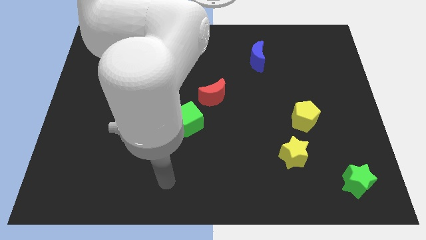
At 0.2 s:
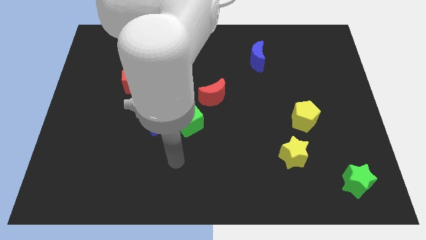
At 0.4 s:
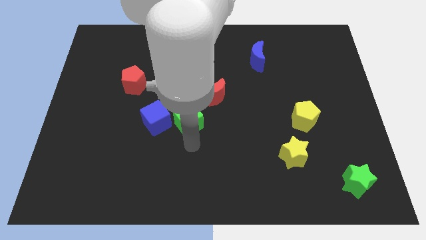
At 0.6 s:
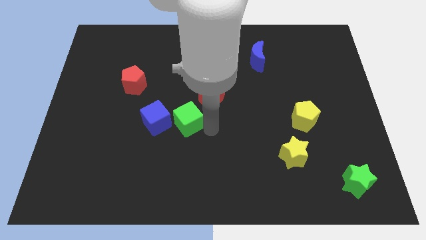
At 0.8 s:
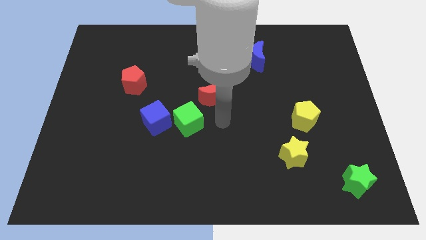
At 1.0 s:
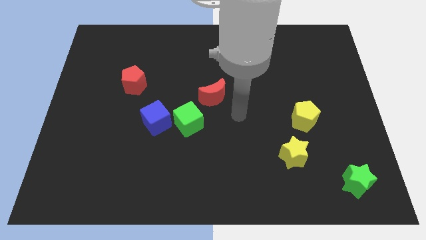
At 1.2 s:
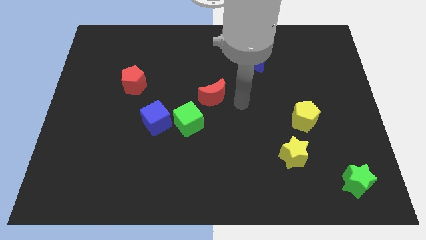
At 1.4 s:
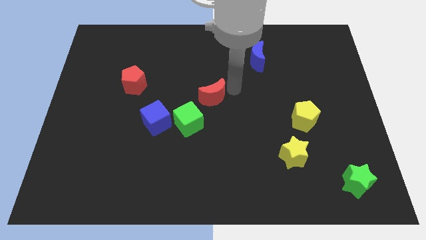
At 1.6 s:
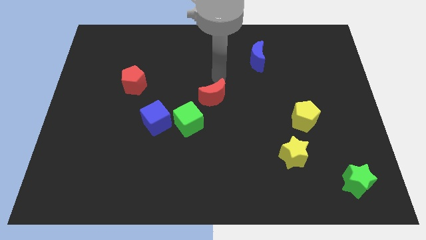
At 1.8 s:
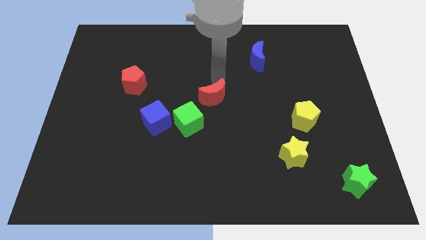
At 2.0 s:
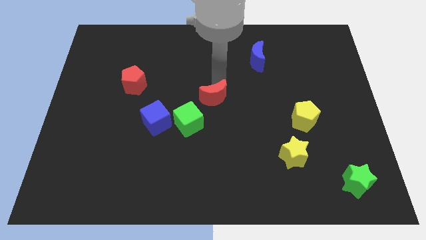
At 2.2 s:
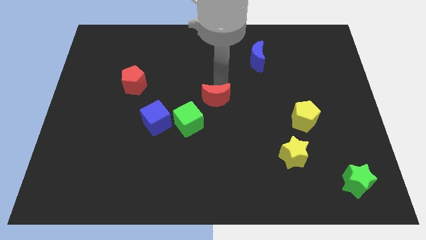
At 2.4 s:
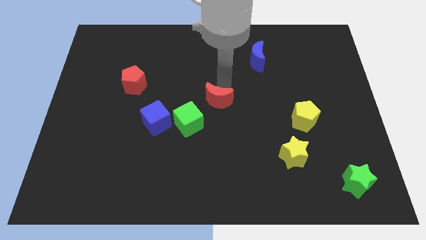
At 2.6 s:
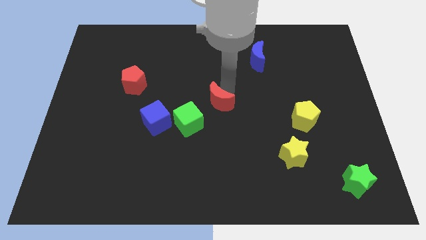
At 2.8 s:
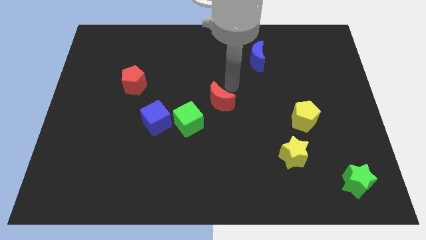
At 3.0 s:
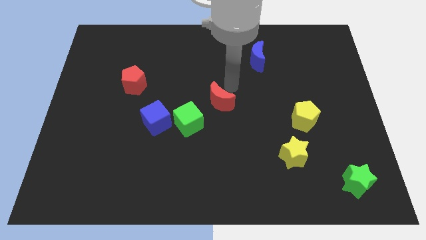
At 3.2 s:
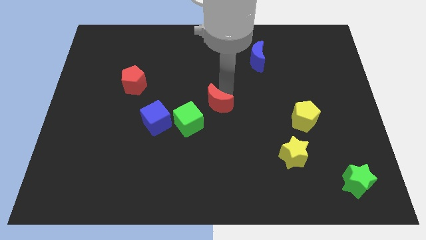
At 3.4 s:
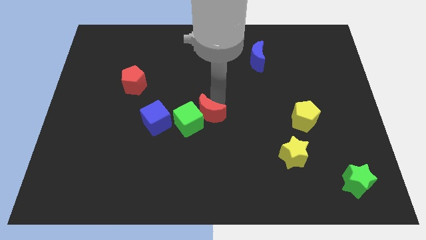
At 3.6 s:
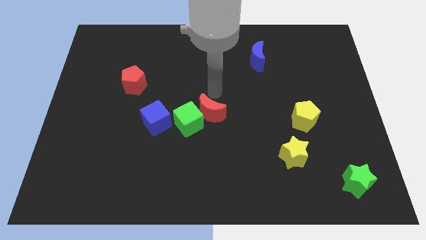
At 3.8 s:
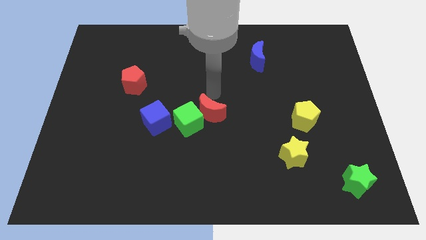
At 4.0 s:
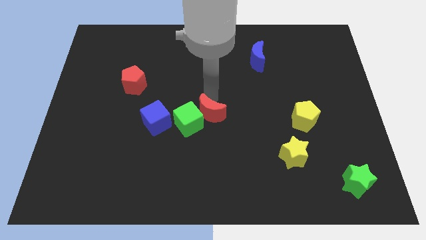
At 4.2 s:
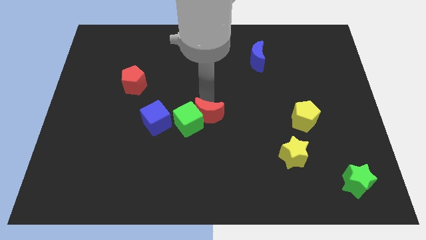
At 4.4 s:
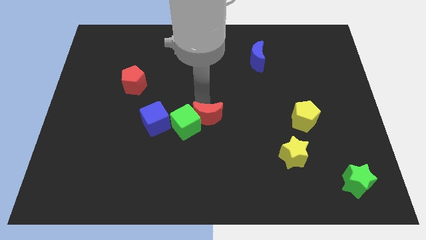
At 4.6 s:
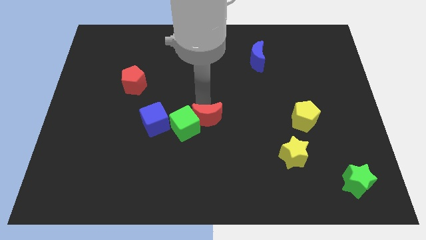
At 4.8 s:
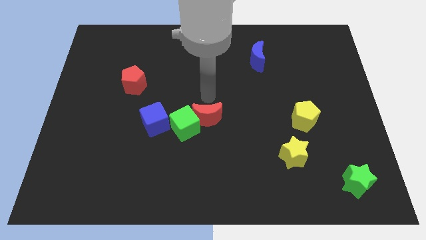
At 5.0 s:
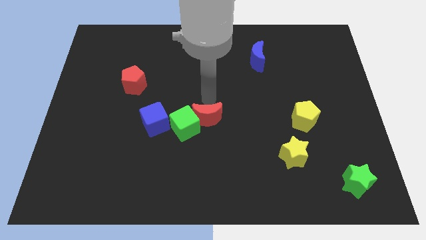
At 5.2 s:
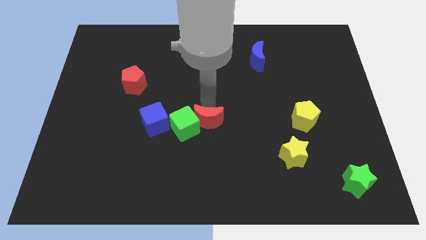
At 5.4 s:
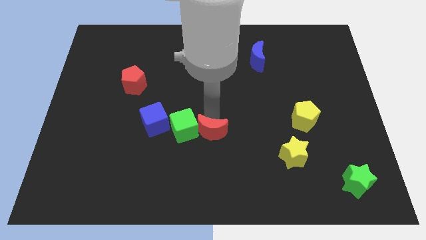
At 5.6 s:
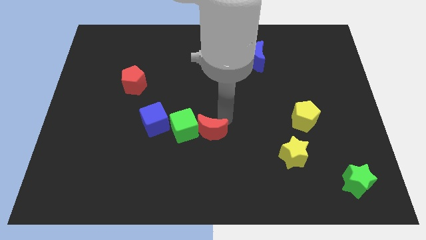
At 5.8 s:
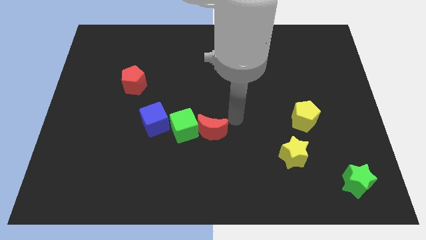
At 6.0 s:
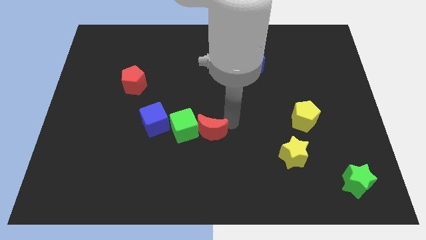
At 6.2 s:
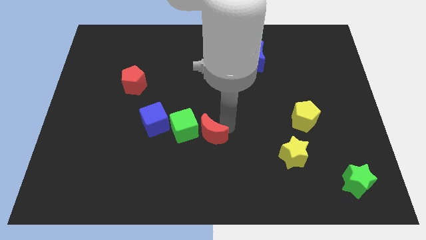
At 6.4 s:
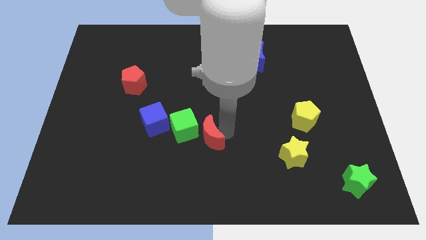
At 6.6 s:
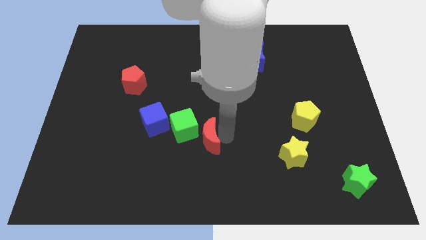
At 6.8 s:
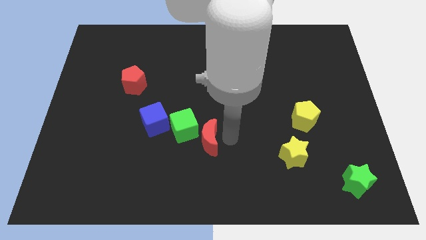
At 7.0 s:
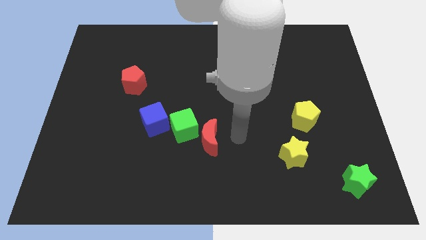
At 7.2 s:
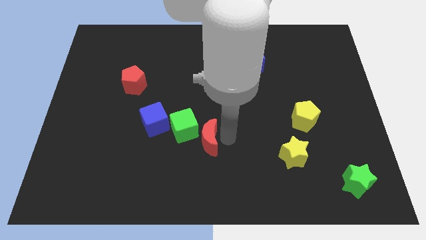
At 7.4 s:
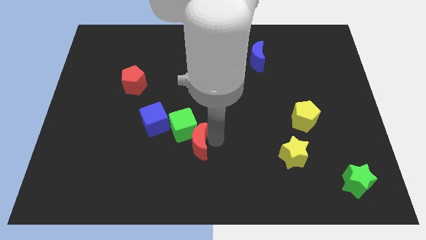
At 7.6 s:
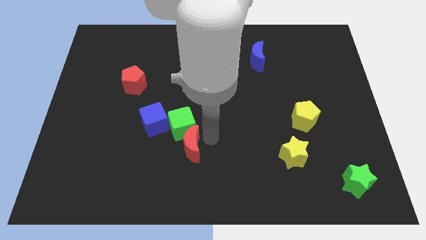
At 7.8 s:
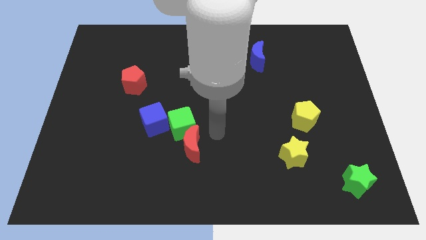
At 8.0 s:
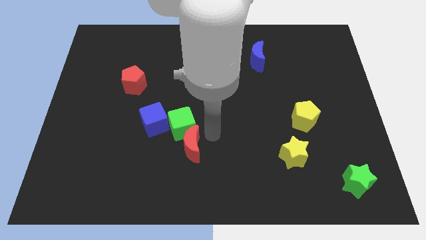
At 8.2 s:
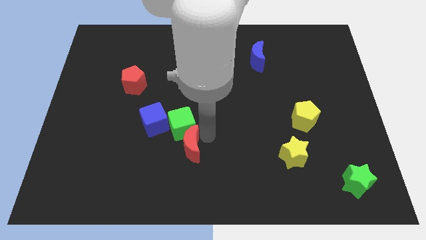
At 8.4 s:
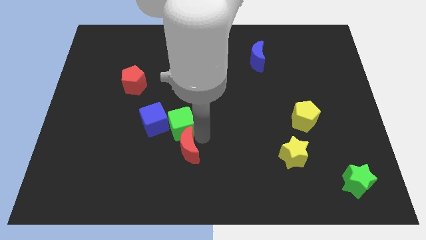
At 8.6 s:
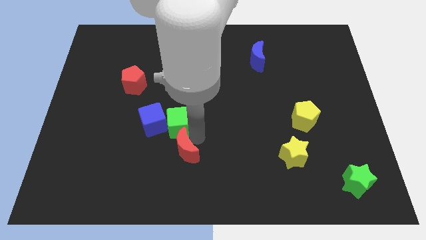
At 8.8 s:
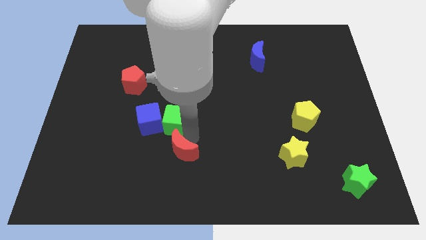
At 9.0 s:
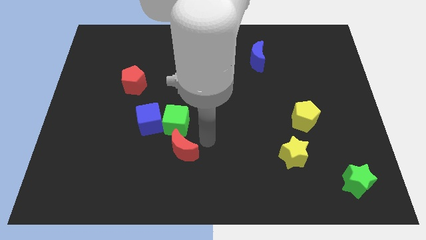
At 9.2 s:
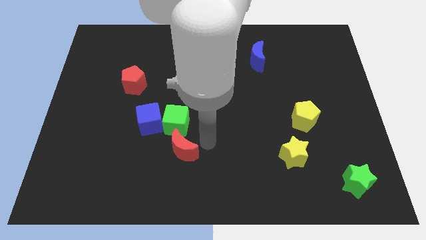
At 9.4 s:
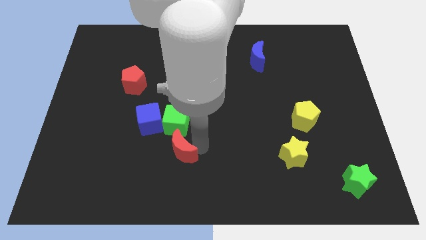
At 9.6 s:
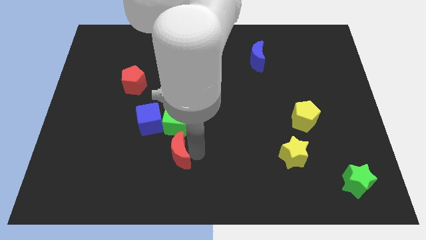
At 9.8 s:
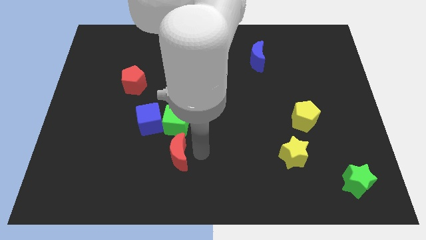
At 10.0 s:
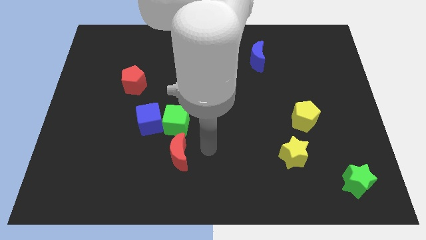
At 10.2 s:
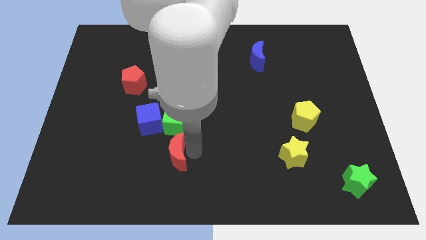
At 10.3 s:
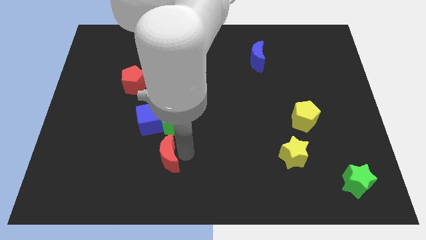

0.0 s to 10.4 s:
put the red moon to the bottom of the blue cube

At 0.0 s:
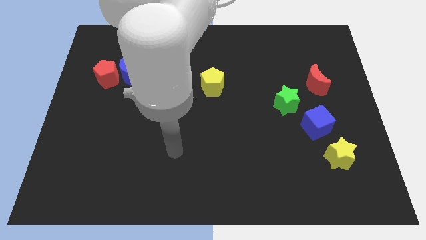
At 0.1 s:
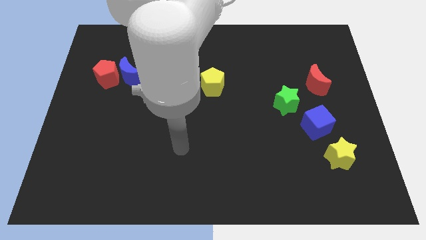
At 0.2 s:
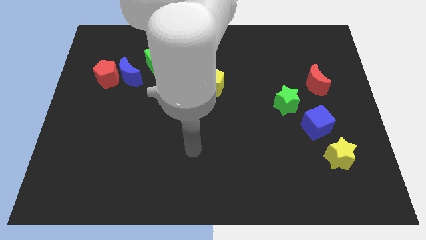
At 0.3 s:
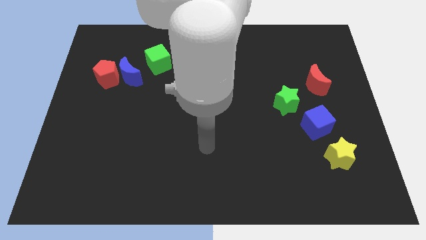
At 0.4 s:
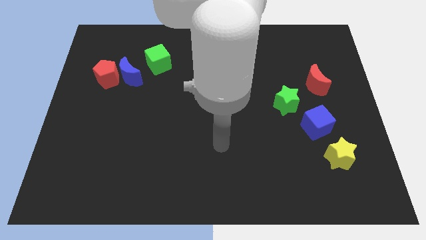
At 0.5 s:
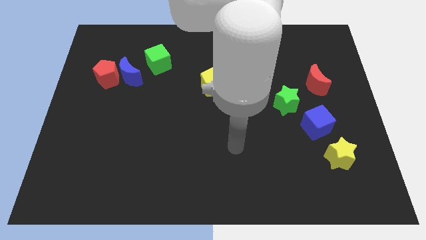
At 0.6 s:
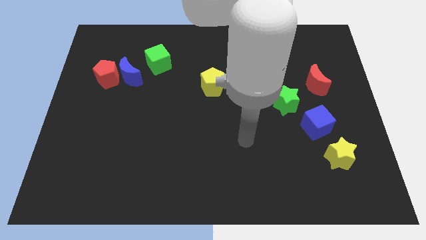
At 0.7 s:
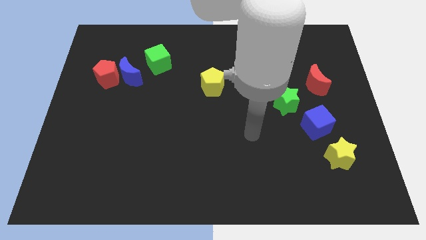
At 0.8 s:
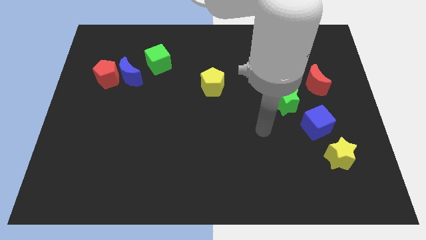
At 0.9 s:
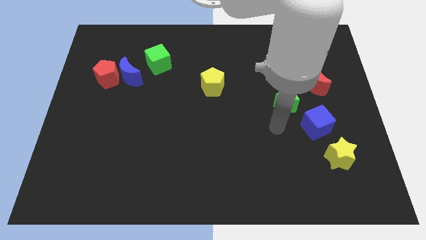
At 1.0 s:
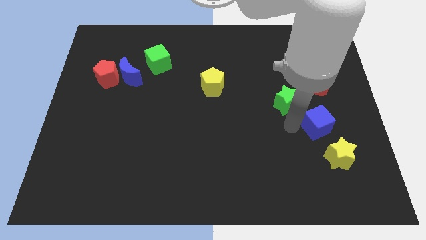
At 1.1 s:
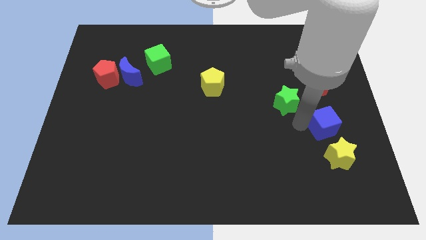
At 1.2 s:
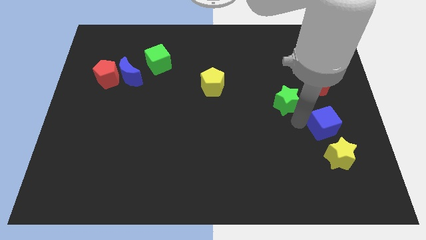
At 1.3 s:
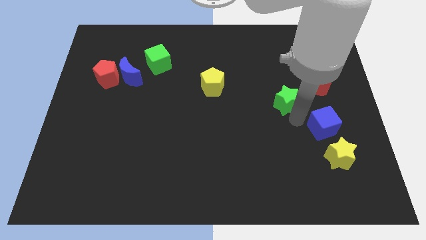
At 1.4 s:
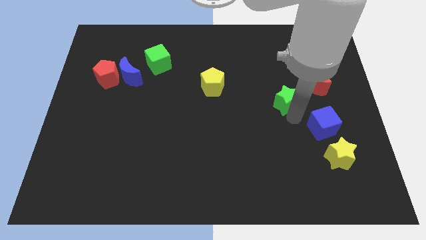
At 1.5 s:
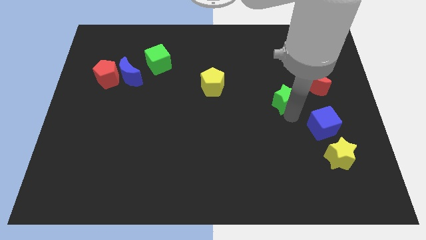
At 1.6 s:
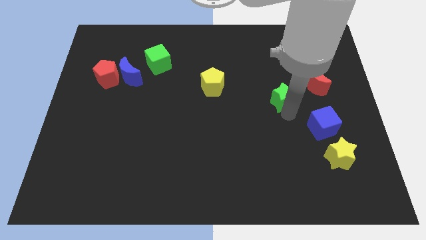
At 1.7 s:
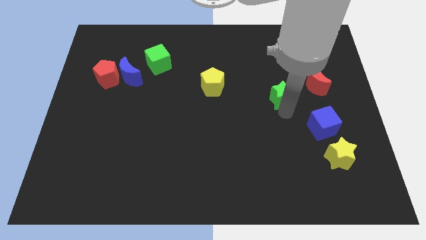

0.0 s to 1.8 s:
slide the green star just left of the red moon

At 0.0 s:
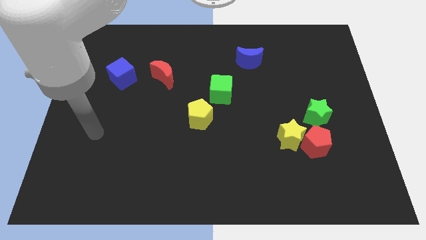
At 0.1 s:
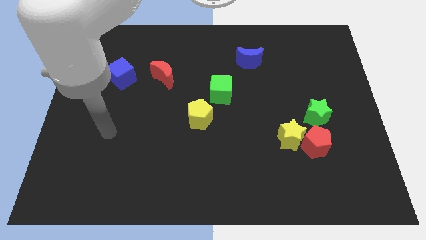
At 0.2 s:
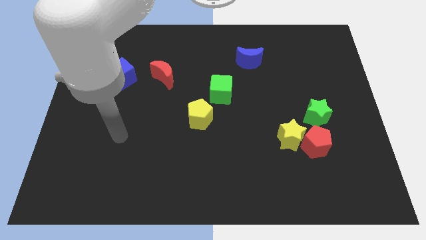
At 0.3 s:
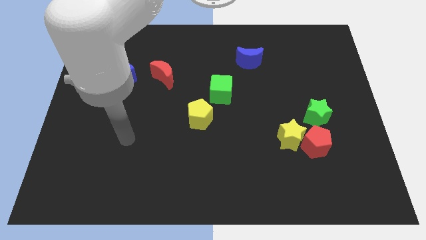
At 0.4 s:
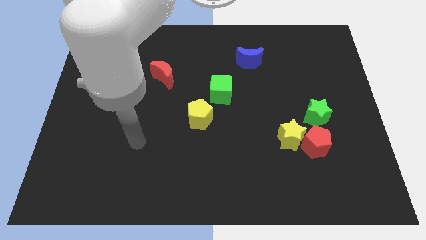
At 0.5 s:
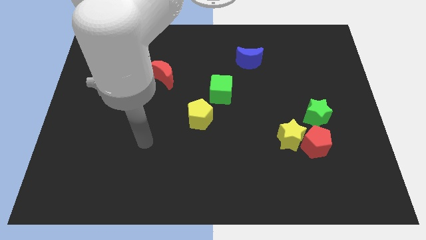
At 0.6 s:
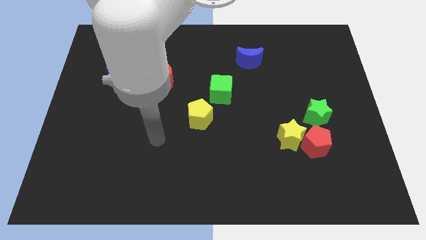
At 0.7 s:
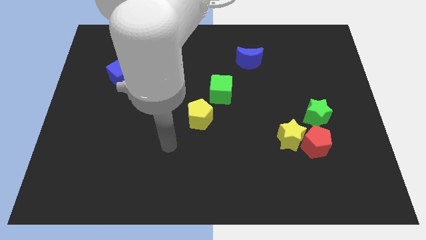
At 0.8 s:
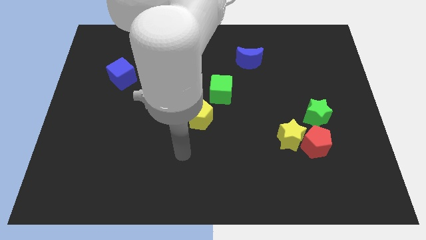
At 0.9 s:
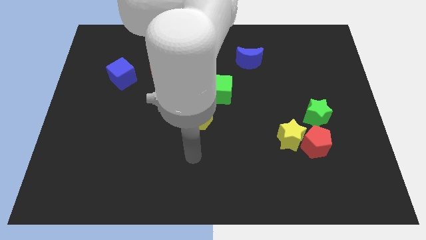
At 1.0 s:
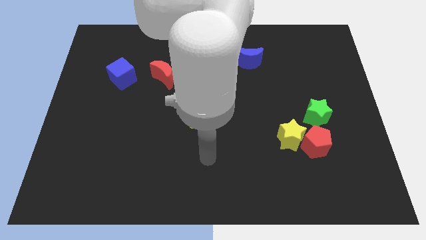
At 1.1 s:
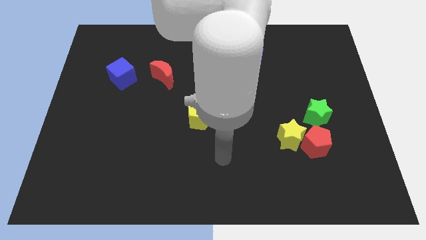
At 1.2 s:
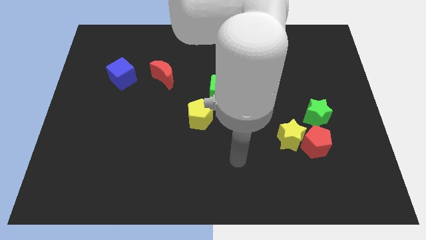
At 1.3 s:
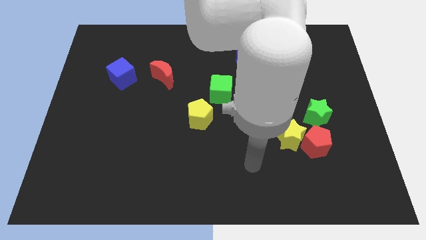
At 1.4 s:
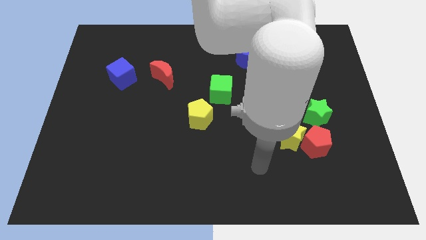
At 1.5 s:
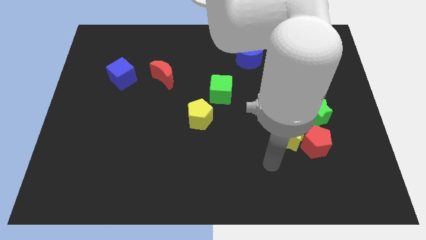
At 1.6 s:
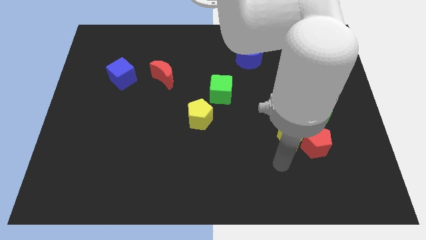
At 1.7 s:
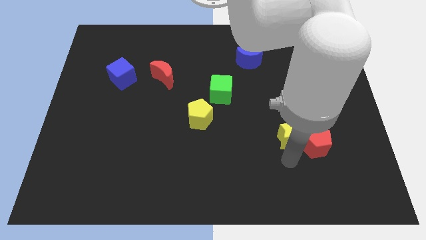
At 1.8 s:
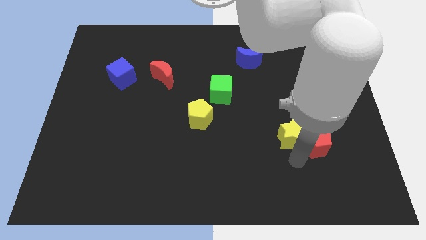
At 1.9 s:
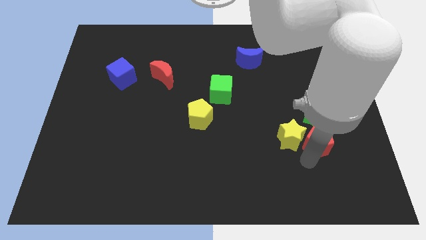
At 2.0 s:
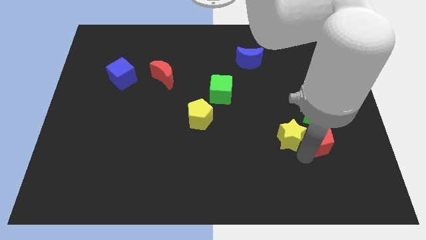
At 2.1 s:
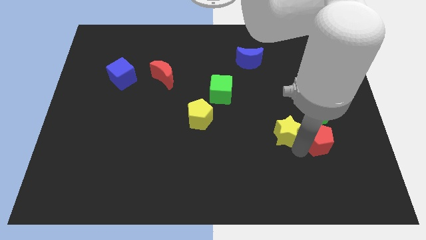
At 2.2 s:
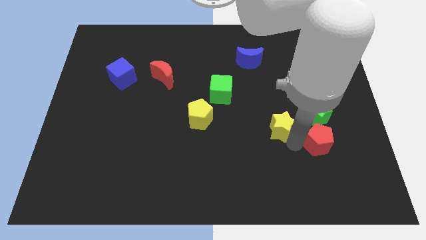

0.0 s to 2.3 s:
push the yellow star left of the green star
